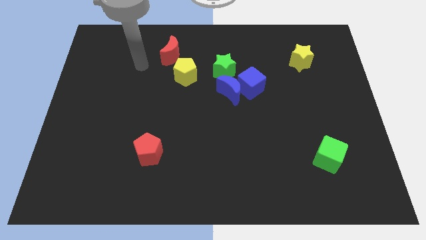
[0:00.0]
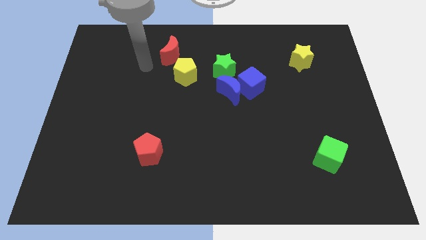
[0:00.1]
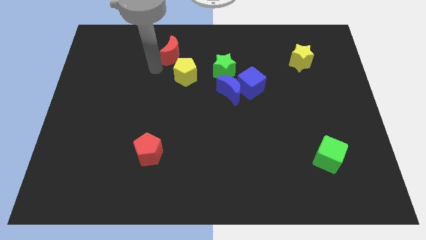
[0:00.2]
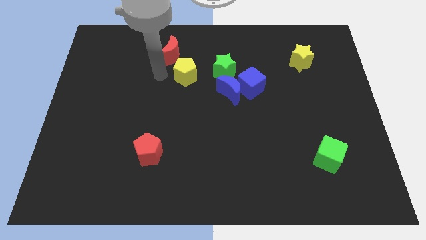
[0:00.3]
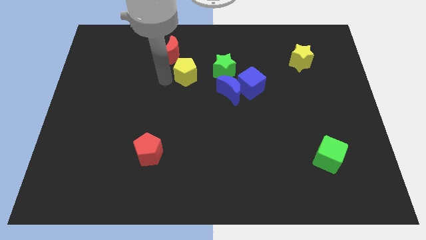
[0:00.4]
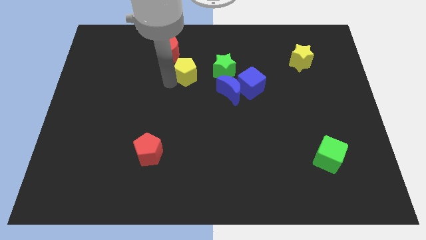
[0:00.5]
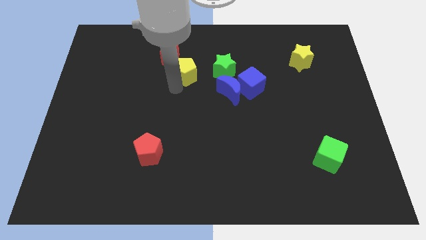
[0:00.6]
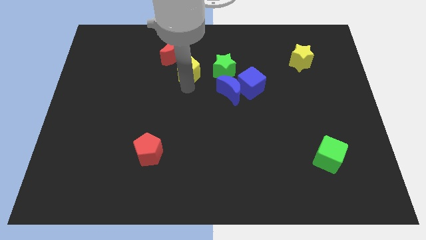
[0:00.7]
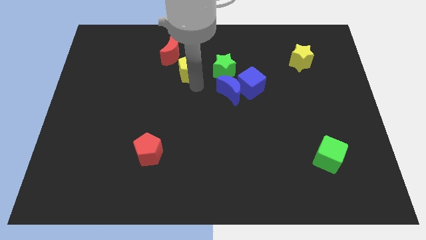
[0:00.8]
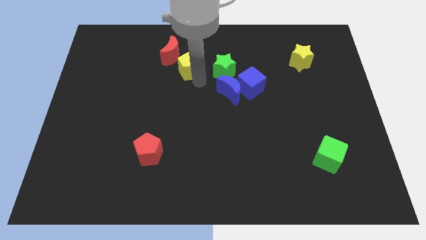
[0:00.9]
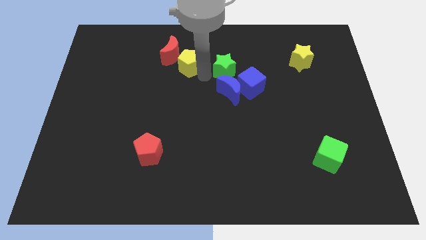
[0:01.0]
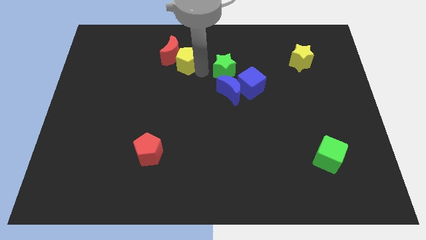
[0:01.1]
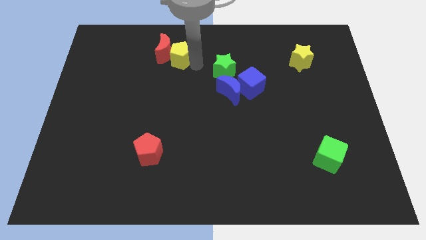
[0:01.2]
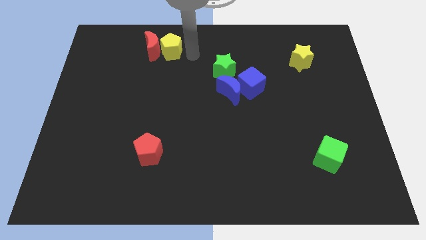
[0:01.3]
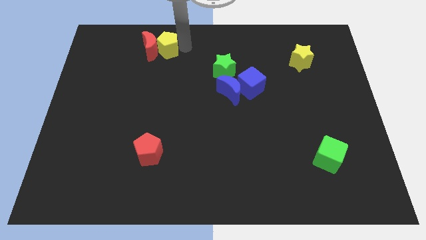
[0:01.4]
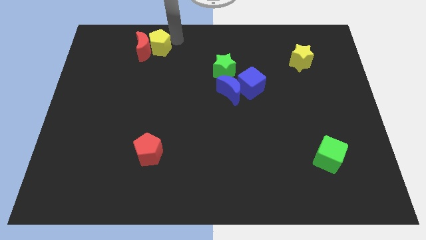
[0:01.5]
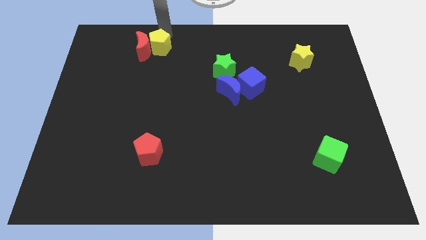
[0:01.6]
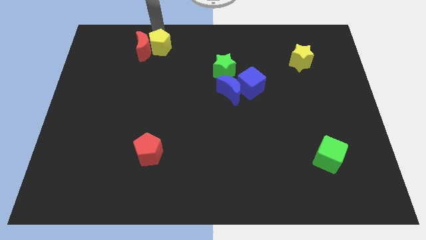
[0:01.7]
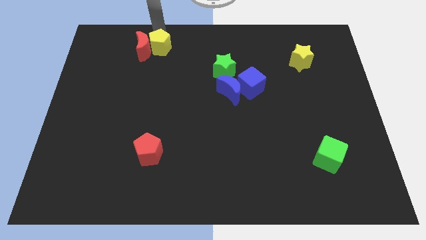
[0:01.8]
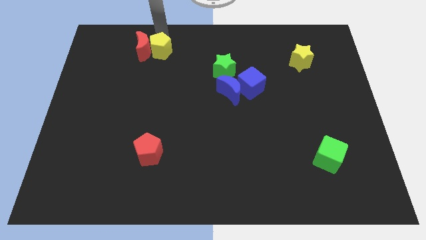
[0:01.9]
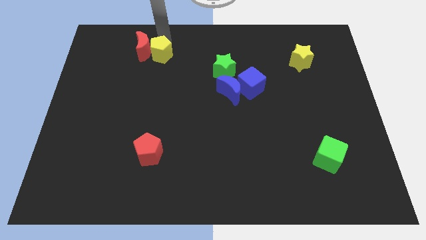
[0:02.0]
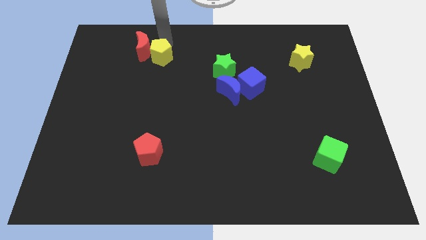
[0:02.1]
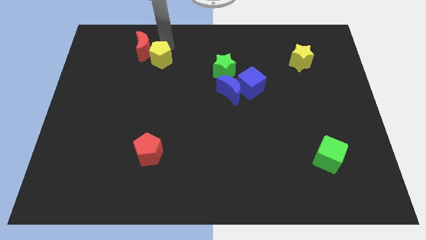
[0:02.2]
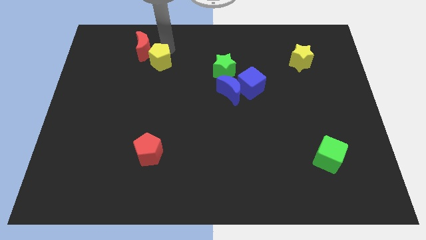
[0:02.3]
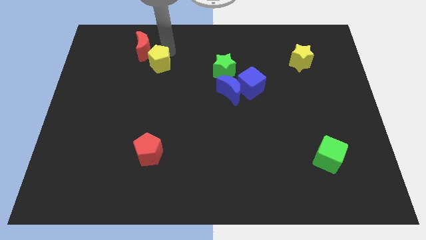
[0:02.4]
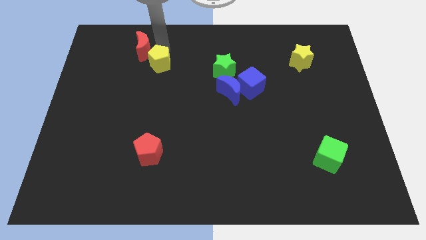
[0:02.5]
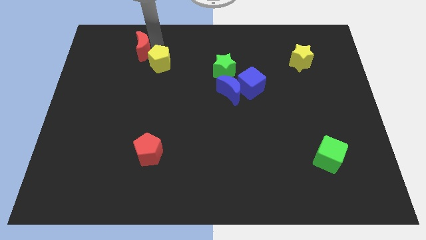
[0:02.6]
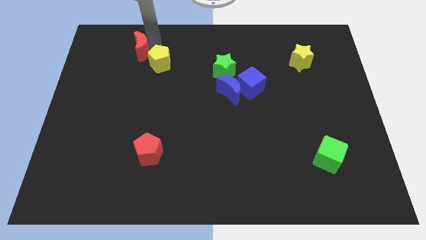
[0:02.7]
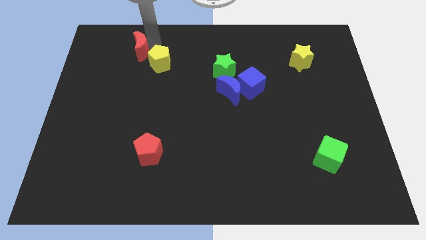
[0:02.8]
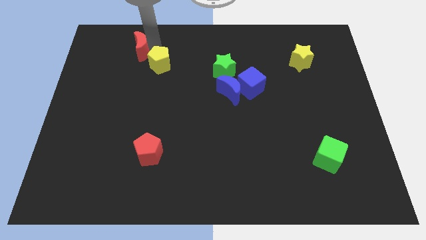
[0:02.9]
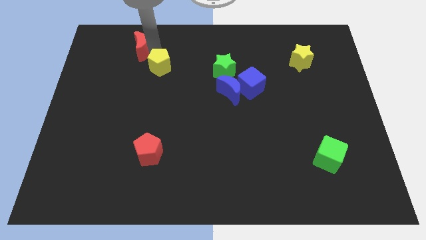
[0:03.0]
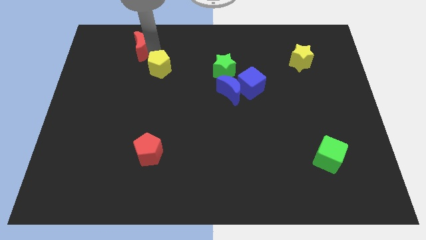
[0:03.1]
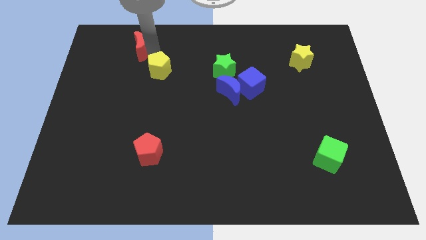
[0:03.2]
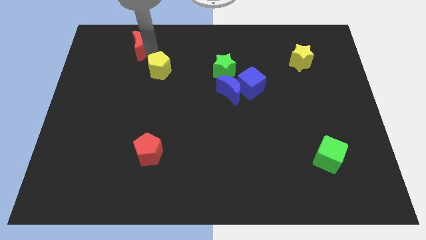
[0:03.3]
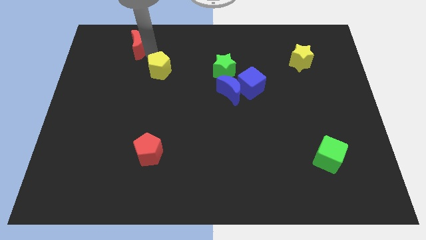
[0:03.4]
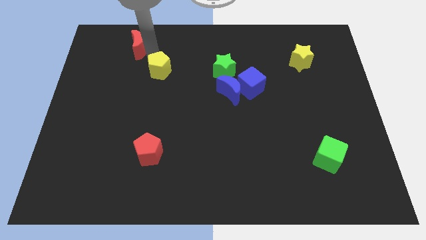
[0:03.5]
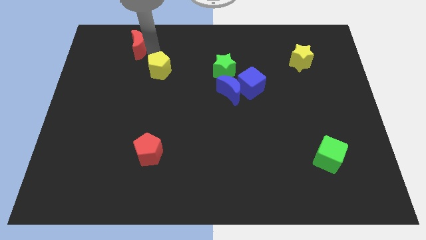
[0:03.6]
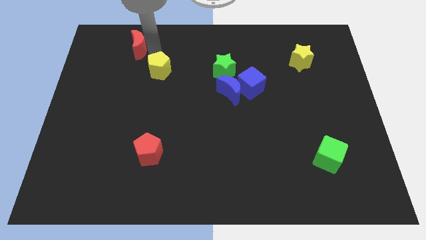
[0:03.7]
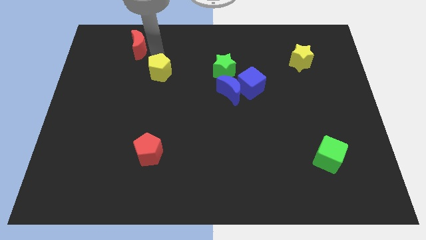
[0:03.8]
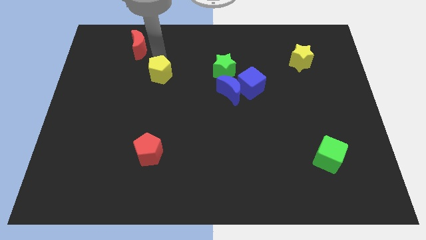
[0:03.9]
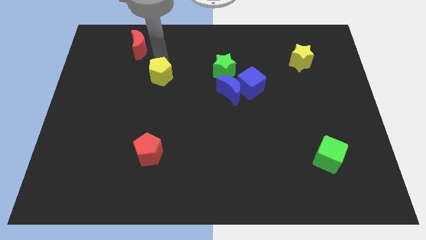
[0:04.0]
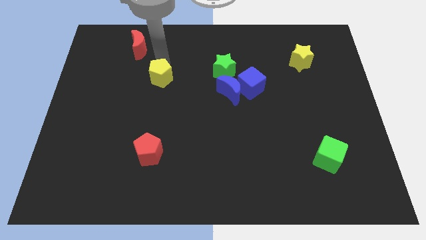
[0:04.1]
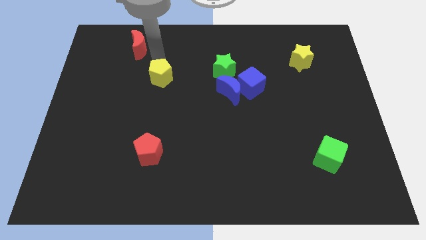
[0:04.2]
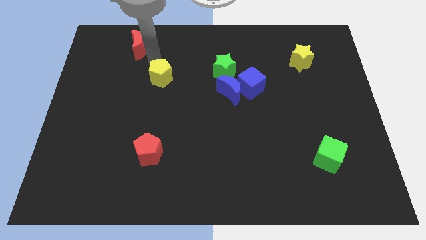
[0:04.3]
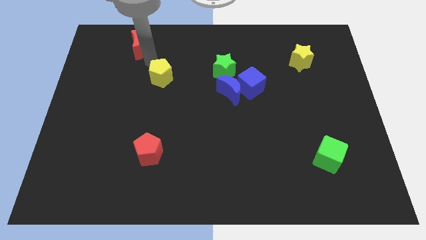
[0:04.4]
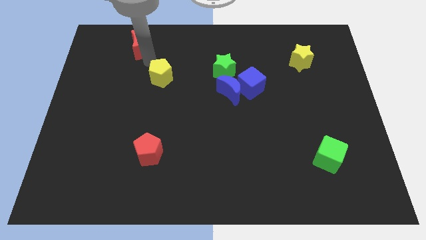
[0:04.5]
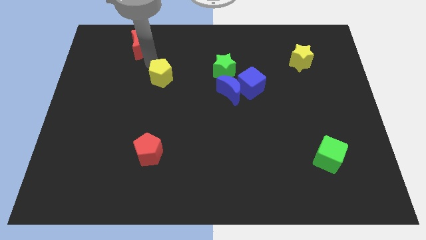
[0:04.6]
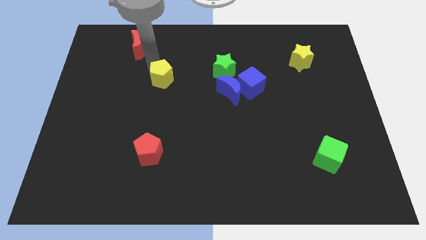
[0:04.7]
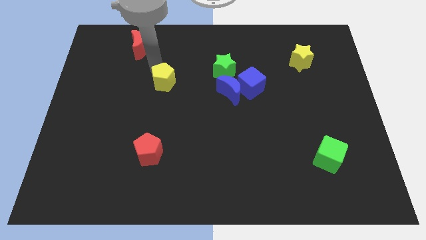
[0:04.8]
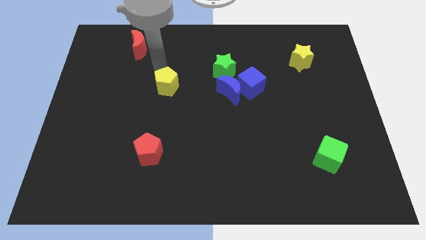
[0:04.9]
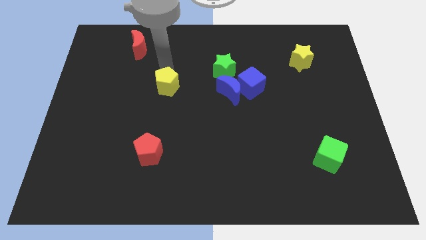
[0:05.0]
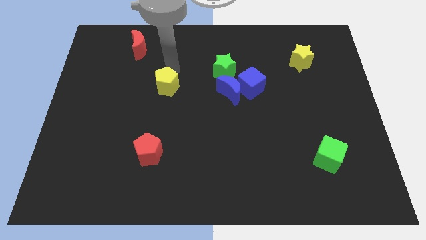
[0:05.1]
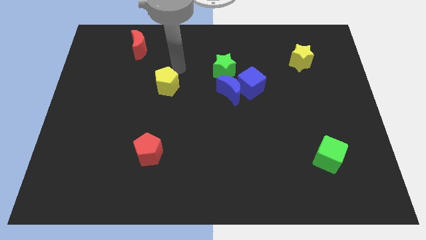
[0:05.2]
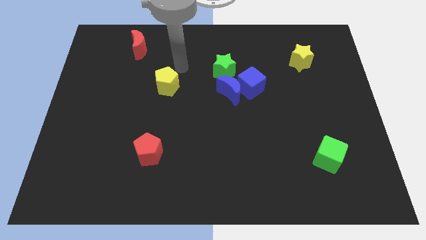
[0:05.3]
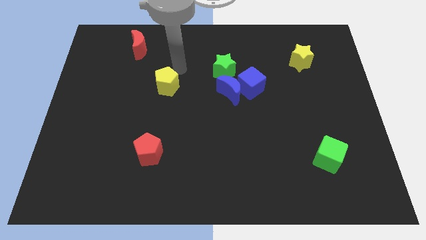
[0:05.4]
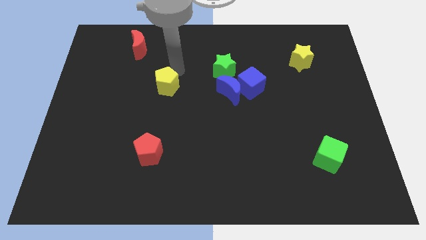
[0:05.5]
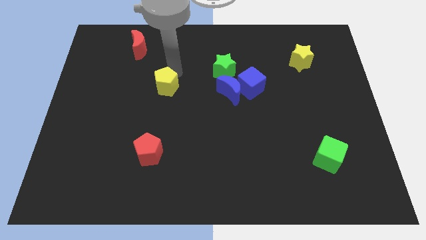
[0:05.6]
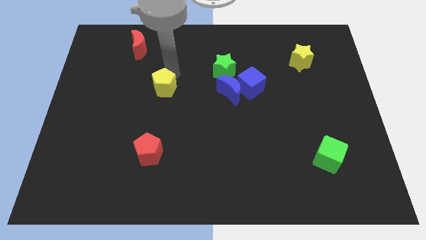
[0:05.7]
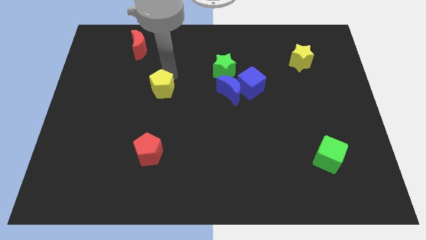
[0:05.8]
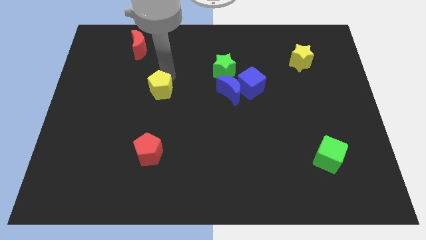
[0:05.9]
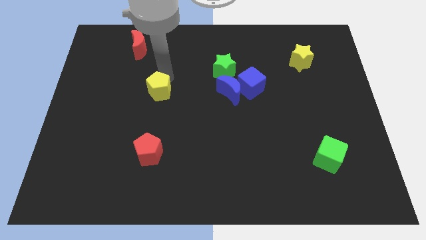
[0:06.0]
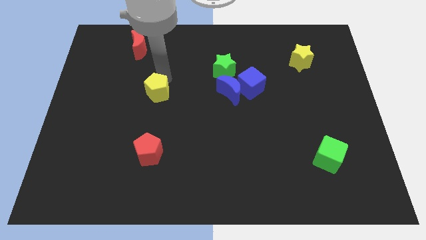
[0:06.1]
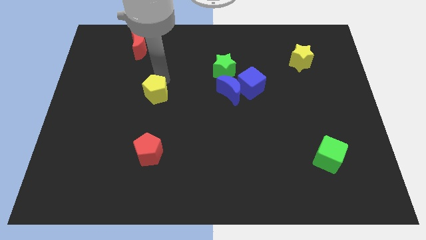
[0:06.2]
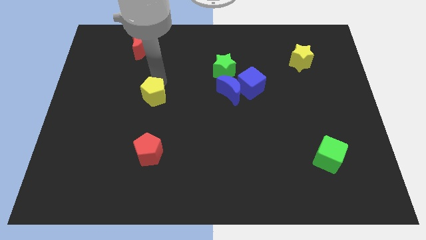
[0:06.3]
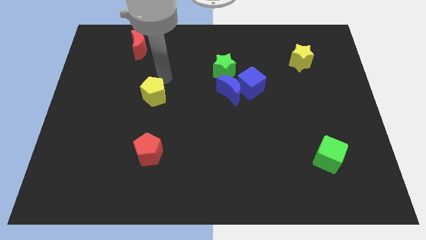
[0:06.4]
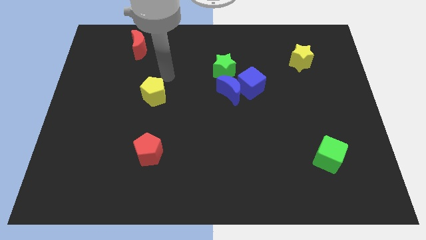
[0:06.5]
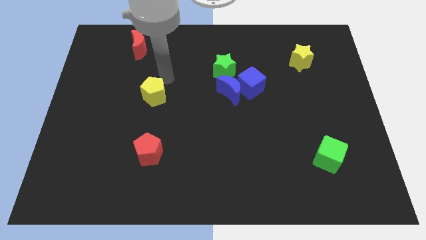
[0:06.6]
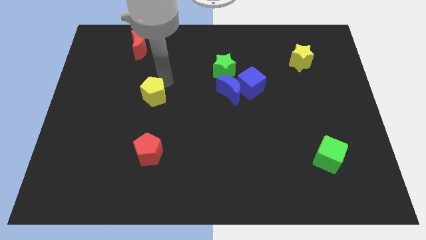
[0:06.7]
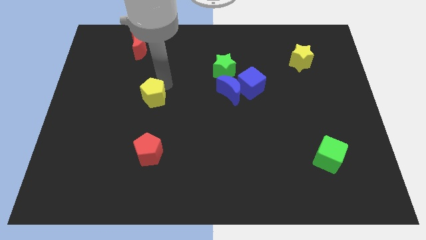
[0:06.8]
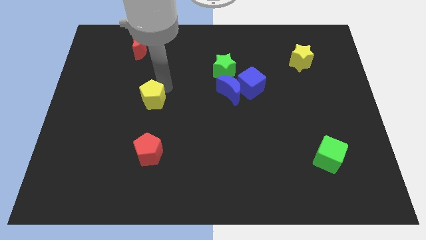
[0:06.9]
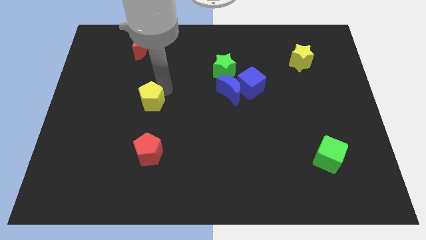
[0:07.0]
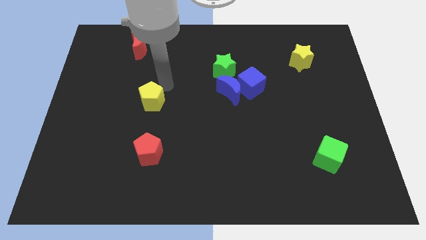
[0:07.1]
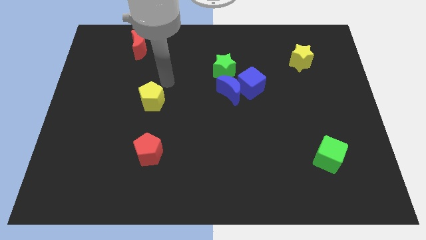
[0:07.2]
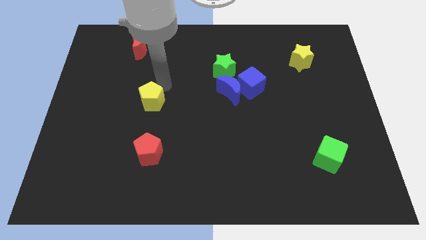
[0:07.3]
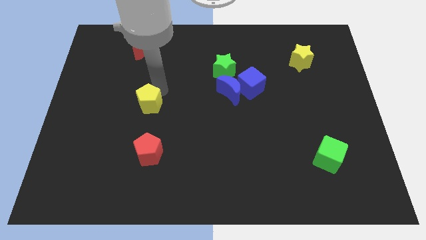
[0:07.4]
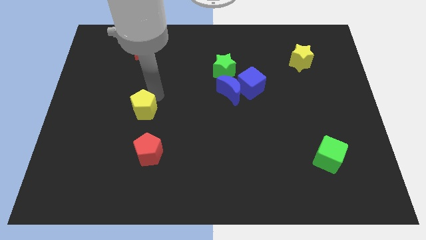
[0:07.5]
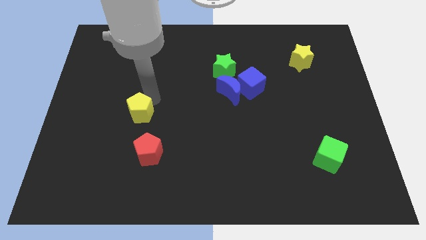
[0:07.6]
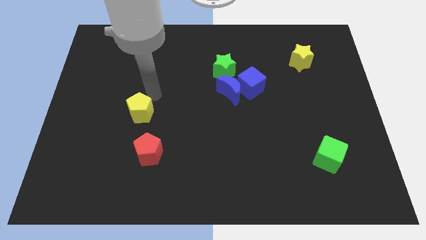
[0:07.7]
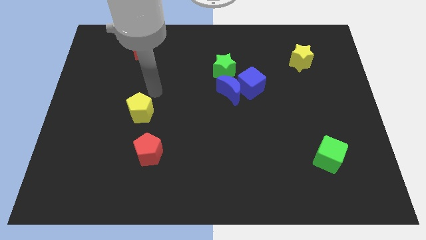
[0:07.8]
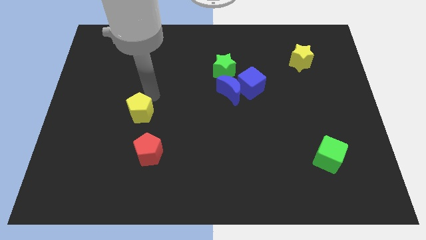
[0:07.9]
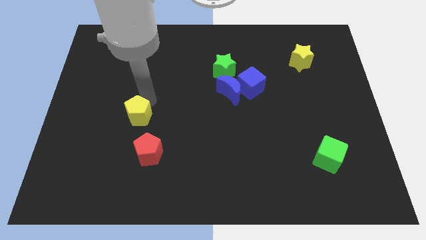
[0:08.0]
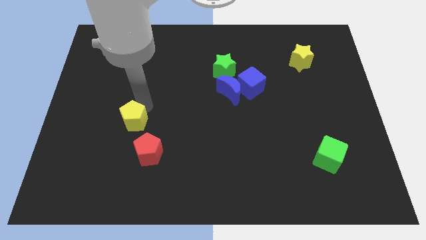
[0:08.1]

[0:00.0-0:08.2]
slide the yellow pentagon to the top left side of the red pentagon
